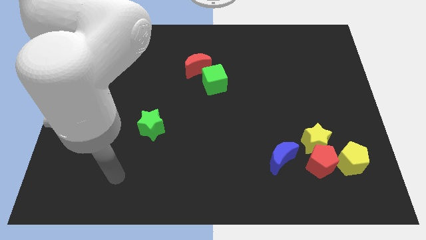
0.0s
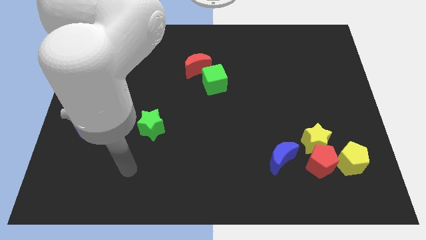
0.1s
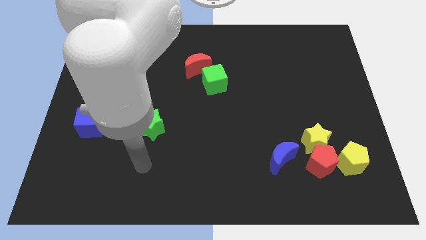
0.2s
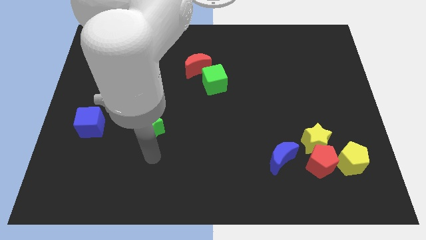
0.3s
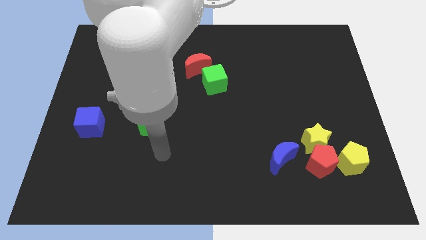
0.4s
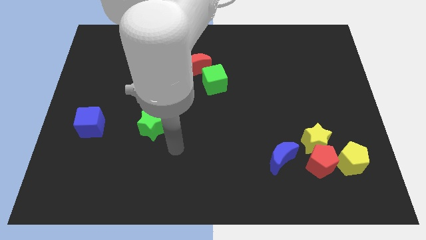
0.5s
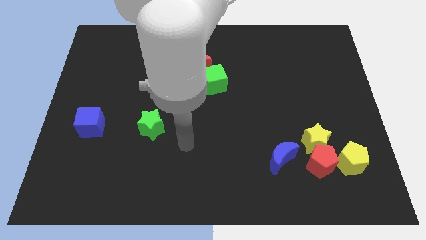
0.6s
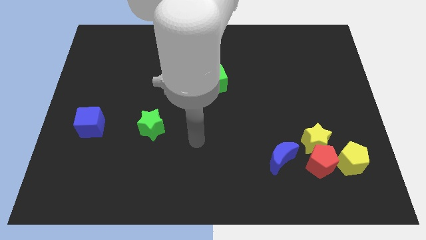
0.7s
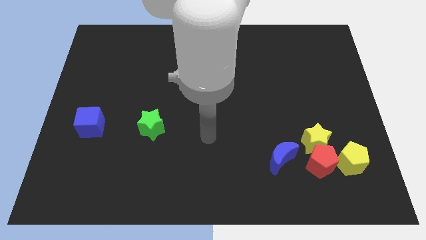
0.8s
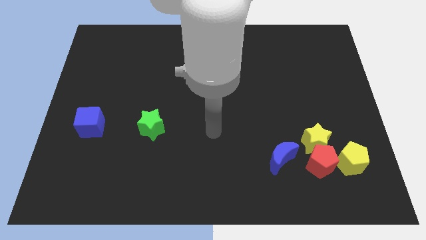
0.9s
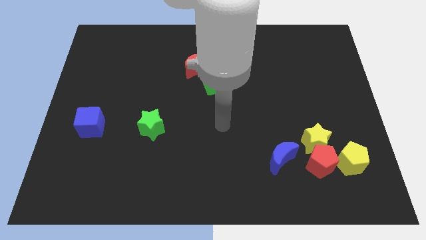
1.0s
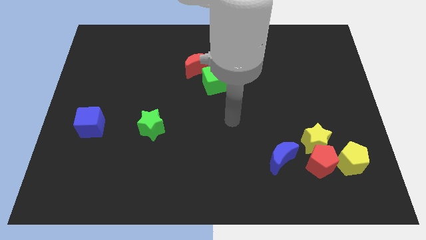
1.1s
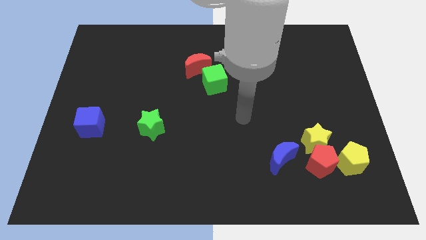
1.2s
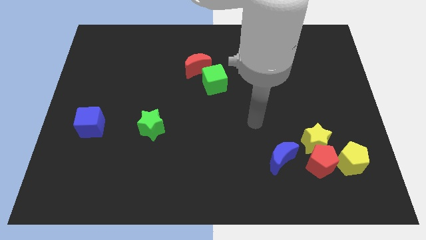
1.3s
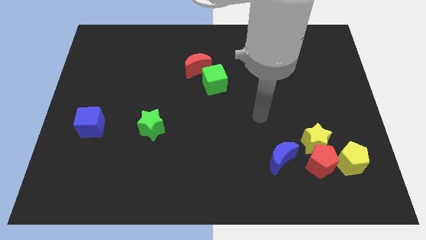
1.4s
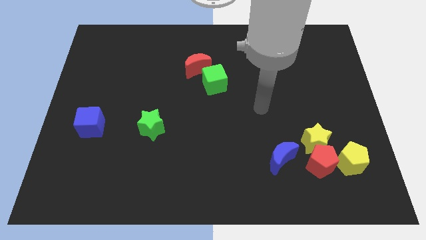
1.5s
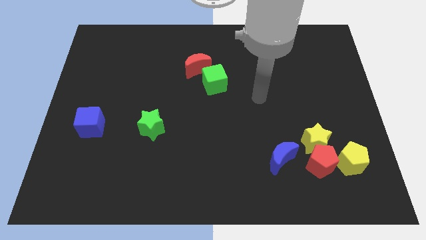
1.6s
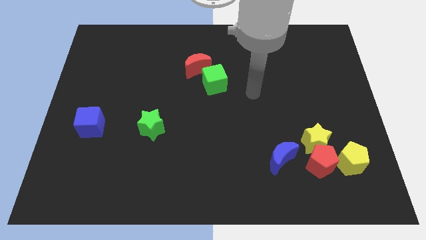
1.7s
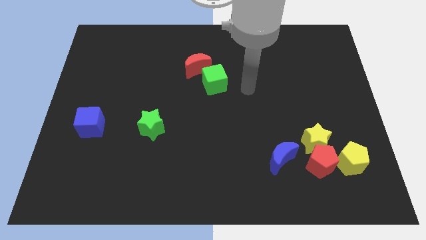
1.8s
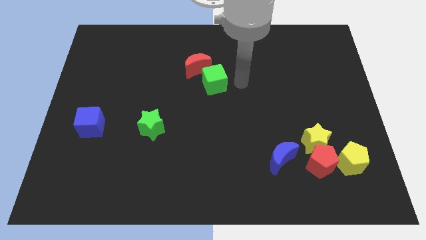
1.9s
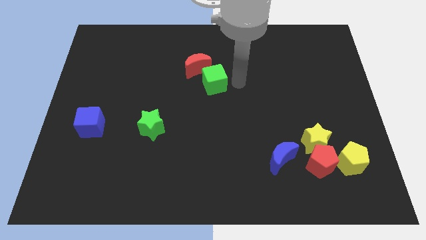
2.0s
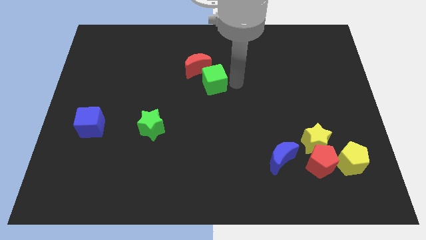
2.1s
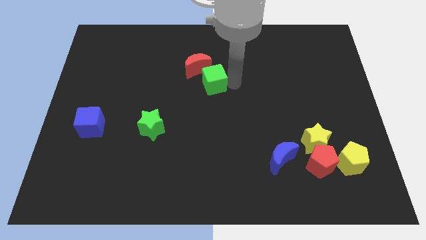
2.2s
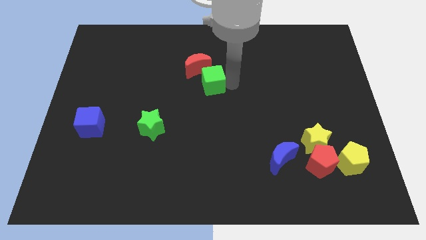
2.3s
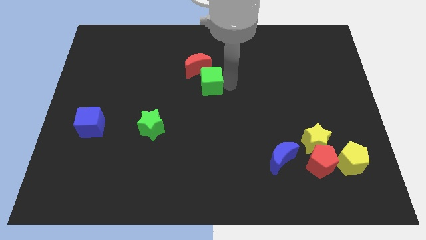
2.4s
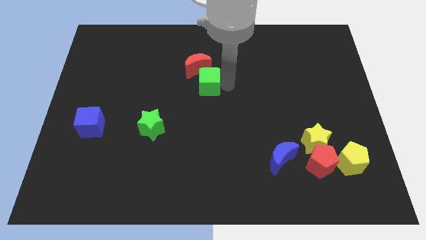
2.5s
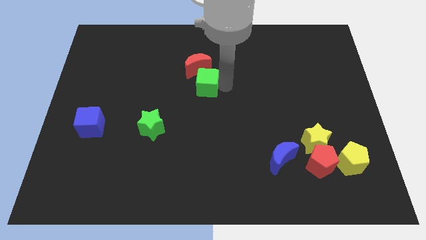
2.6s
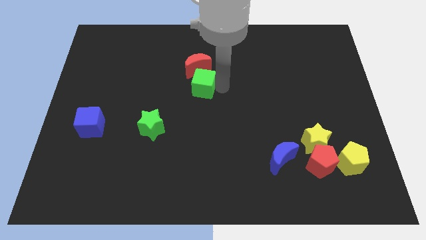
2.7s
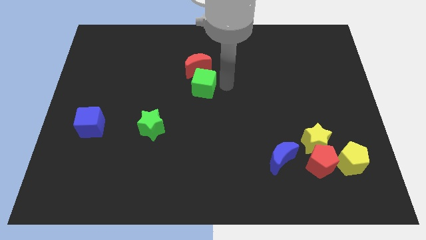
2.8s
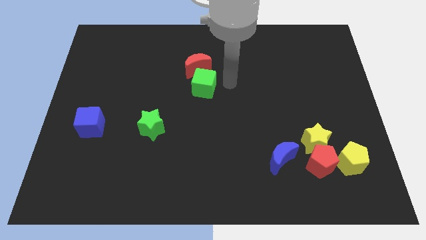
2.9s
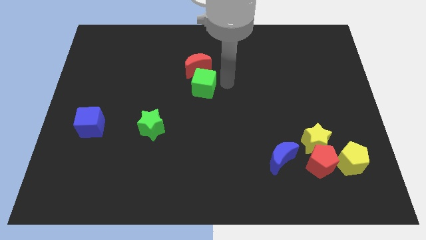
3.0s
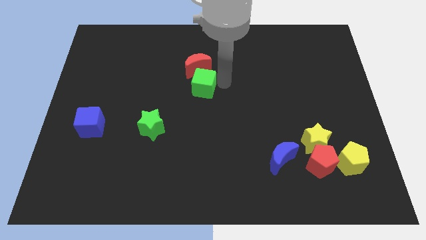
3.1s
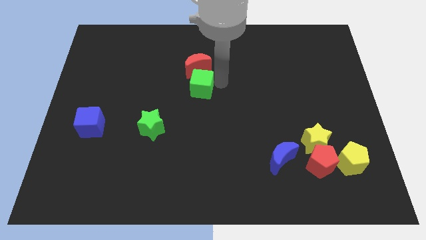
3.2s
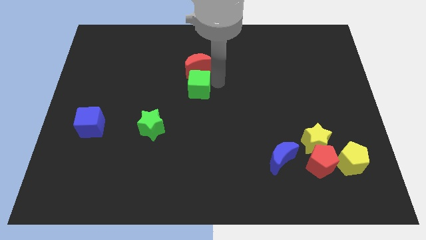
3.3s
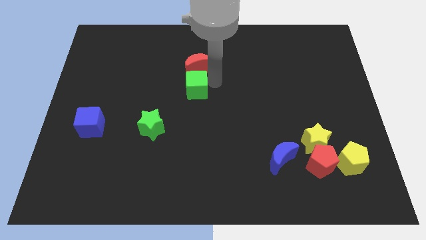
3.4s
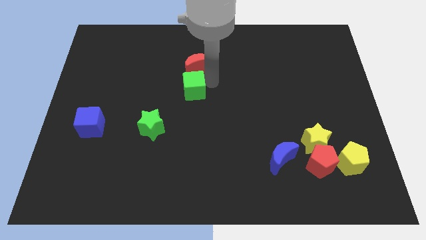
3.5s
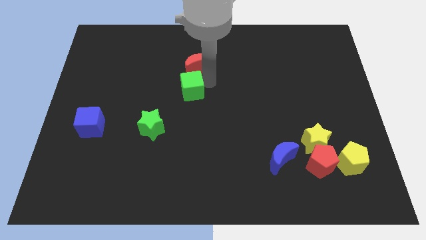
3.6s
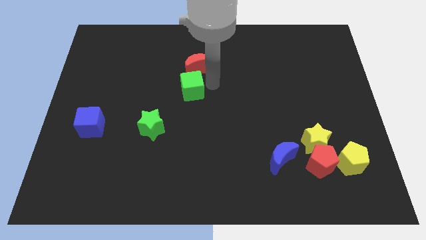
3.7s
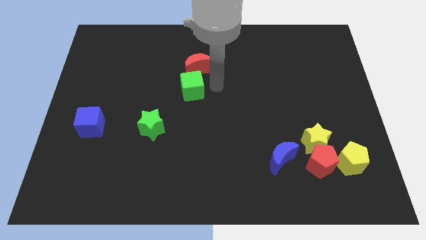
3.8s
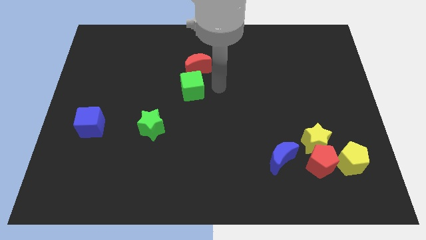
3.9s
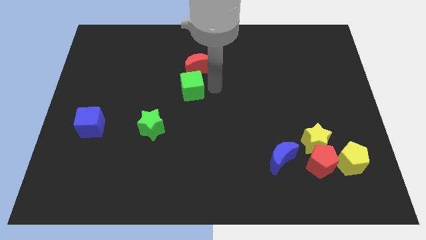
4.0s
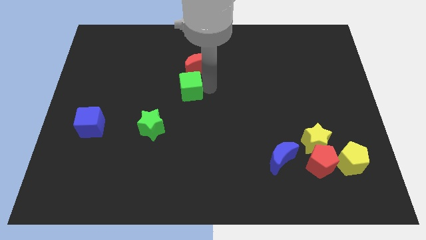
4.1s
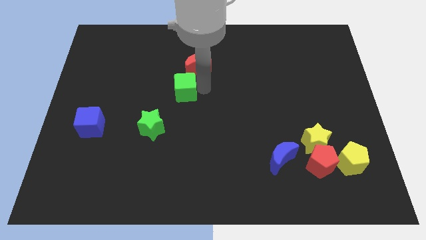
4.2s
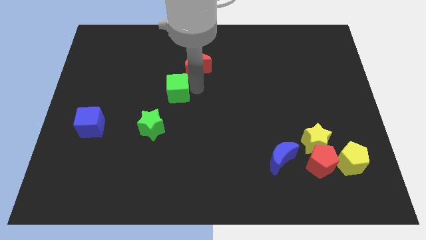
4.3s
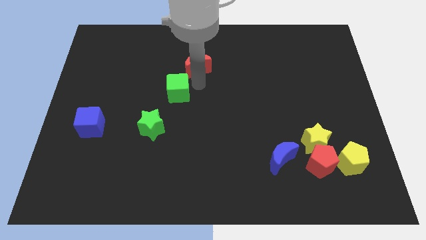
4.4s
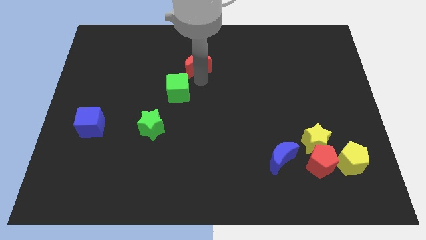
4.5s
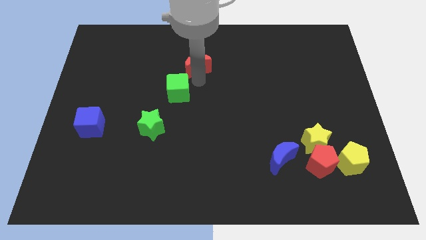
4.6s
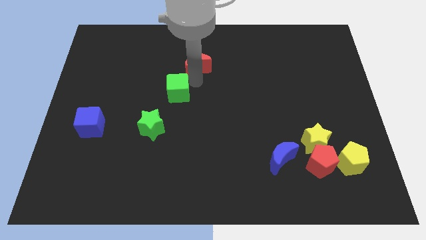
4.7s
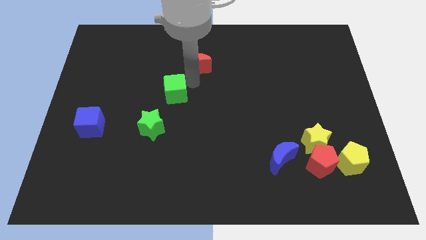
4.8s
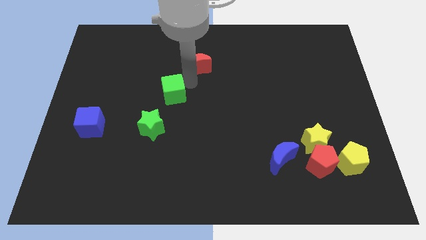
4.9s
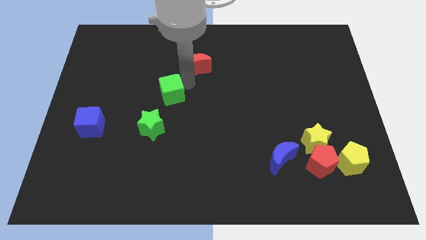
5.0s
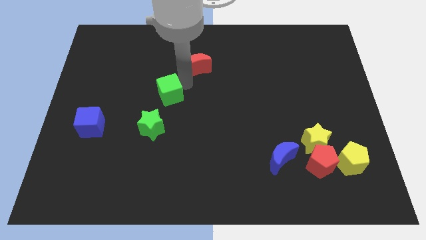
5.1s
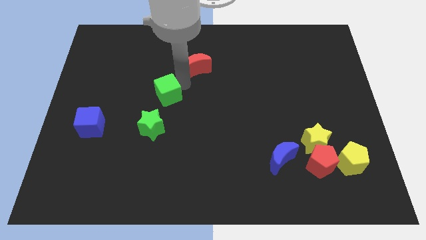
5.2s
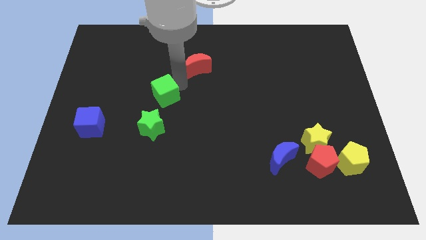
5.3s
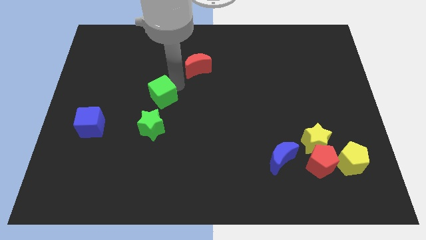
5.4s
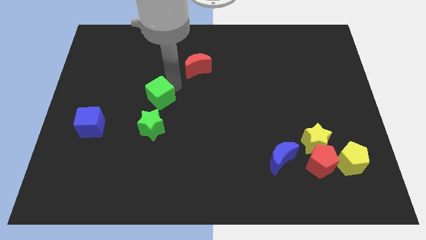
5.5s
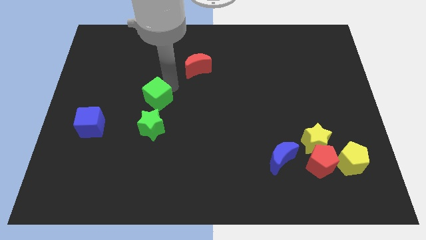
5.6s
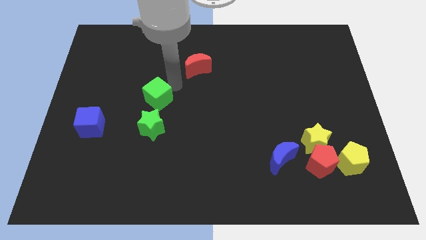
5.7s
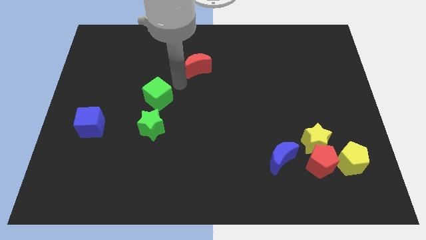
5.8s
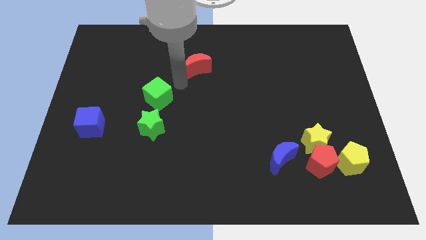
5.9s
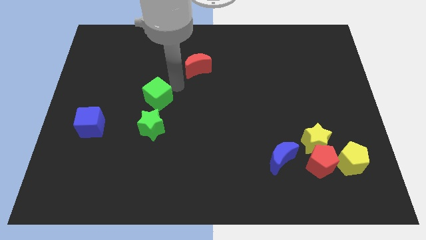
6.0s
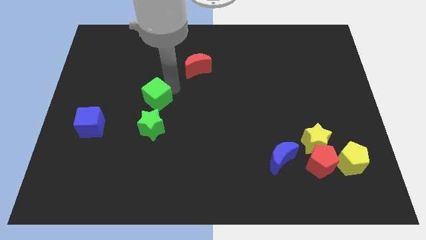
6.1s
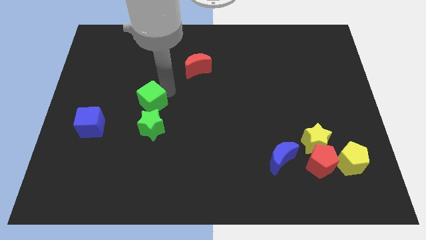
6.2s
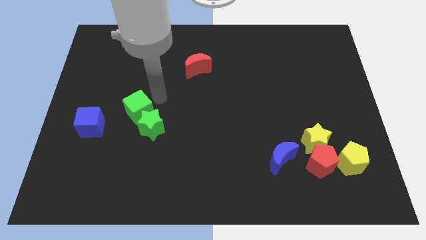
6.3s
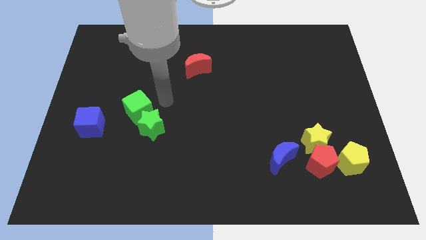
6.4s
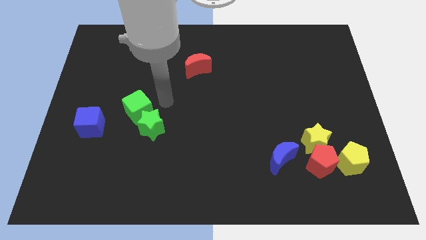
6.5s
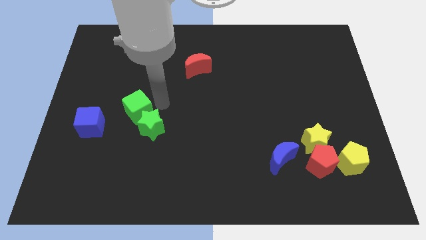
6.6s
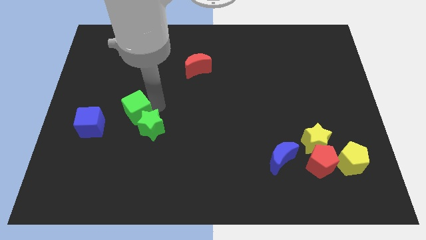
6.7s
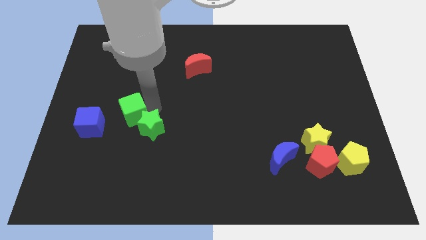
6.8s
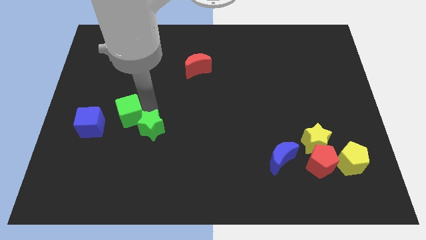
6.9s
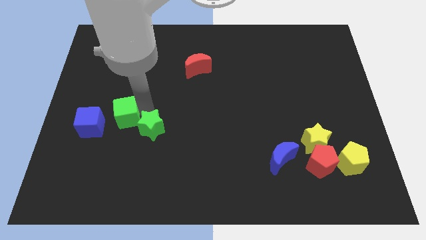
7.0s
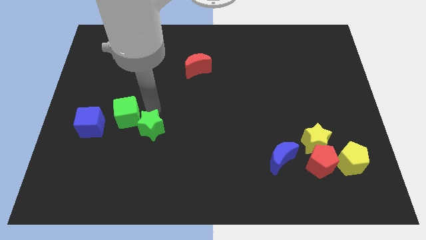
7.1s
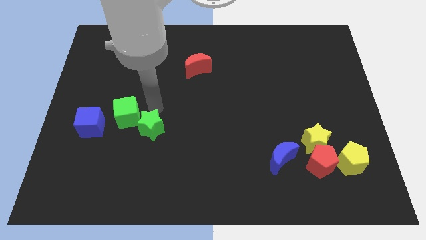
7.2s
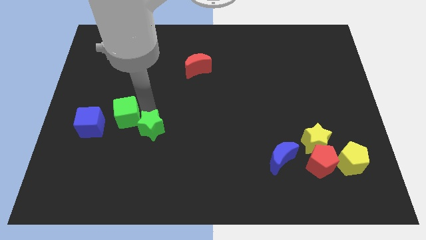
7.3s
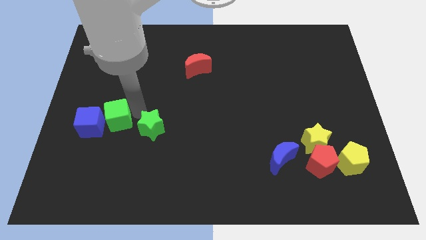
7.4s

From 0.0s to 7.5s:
slide the green cube close to the blue cube
